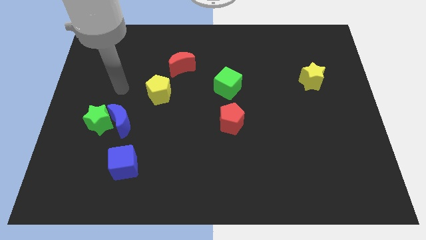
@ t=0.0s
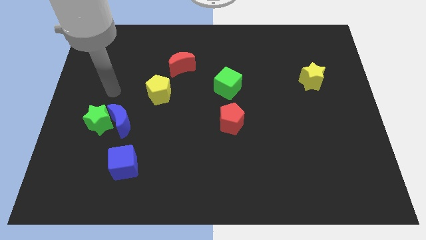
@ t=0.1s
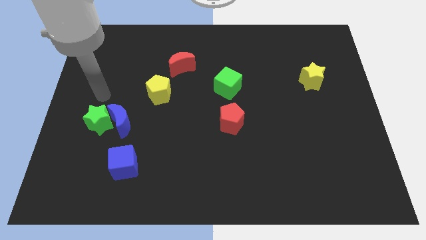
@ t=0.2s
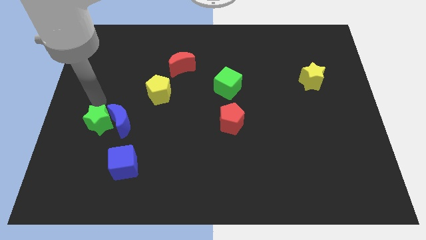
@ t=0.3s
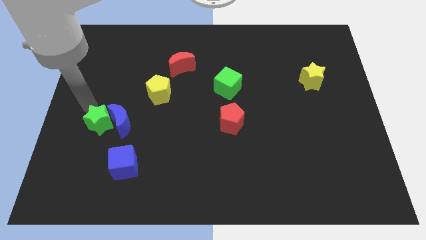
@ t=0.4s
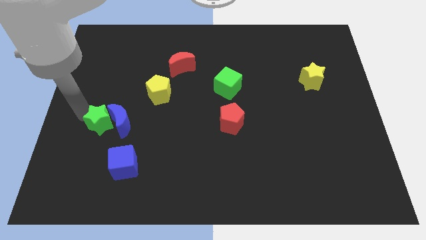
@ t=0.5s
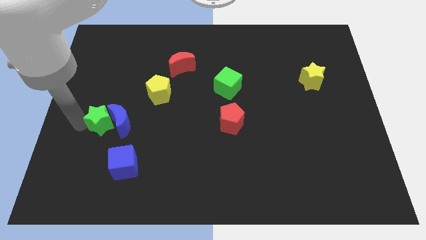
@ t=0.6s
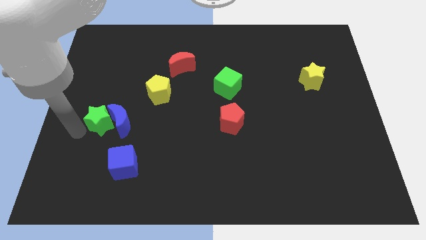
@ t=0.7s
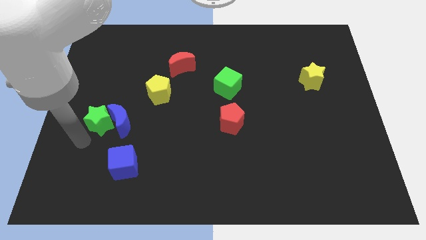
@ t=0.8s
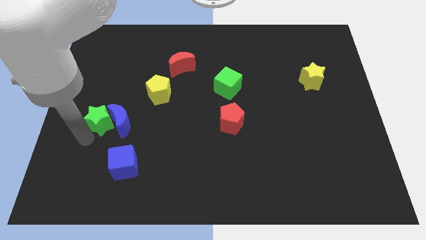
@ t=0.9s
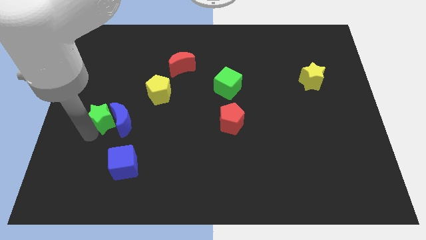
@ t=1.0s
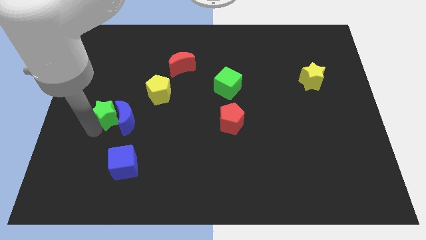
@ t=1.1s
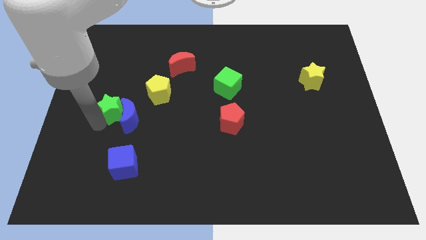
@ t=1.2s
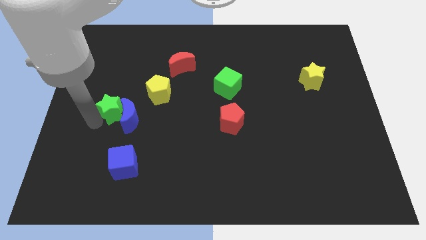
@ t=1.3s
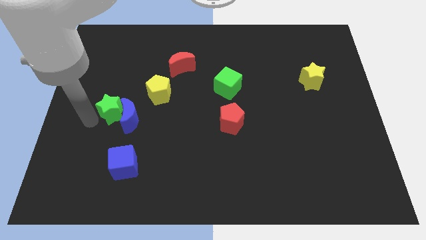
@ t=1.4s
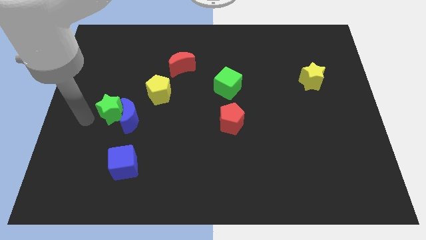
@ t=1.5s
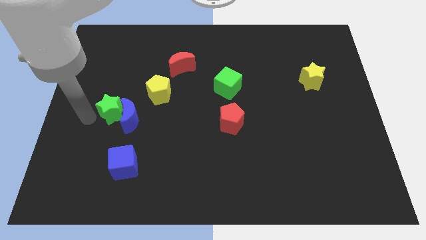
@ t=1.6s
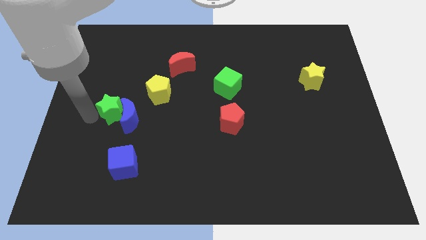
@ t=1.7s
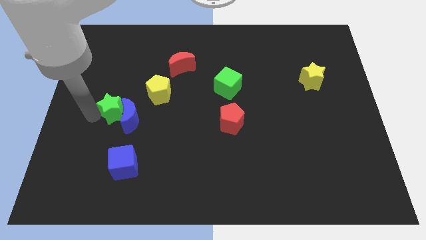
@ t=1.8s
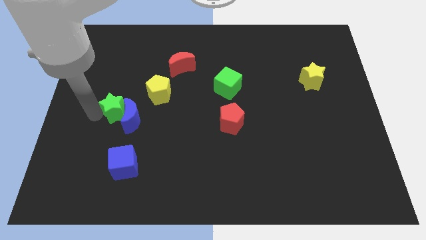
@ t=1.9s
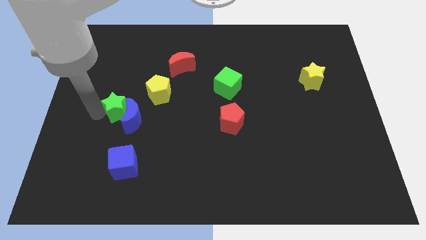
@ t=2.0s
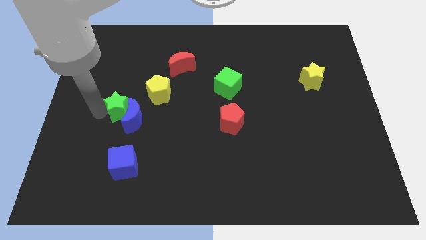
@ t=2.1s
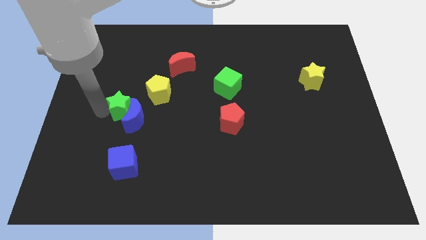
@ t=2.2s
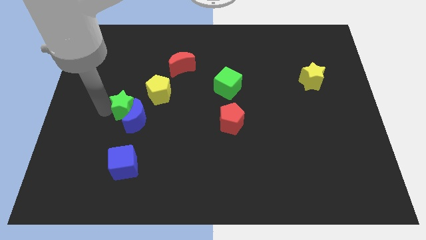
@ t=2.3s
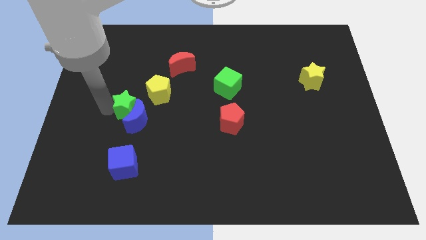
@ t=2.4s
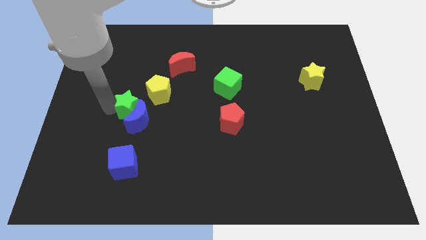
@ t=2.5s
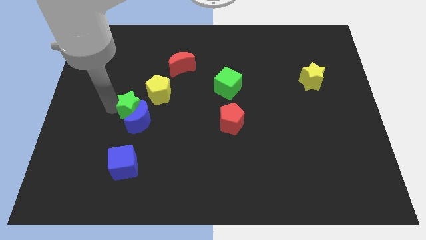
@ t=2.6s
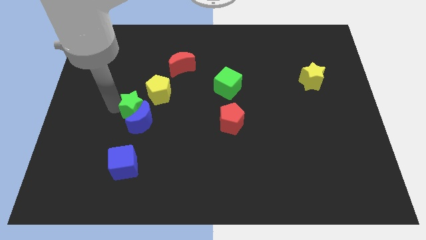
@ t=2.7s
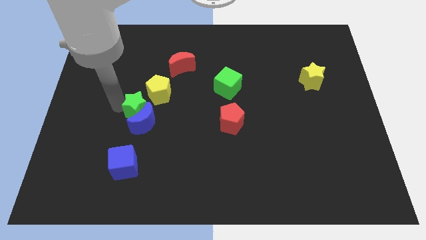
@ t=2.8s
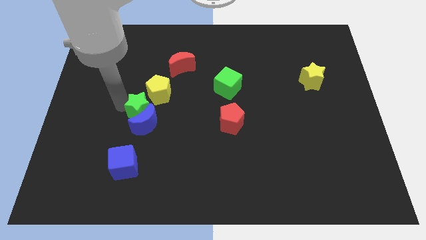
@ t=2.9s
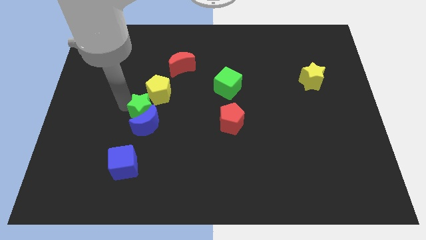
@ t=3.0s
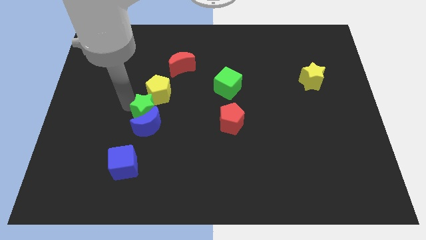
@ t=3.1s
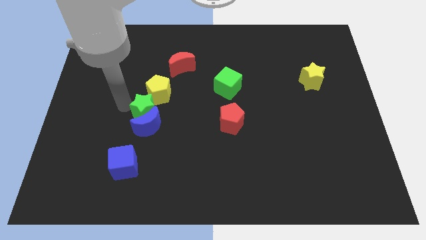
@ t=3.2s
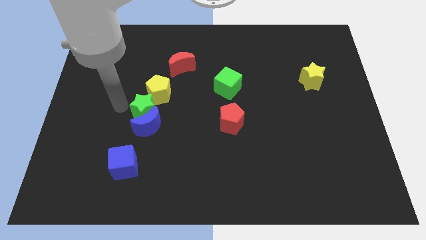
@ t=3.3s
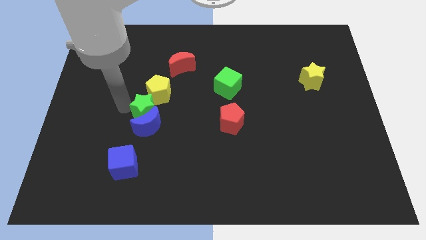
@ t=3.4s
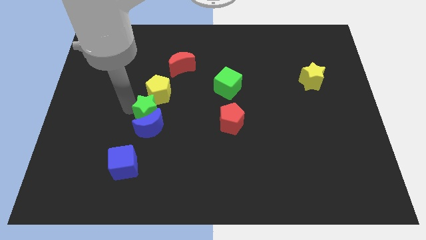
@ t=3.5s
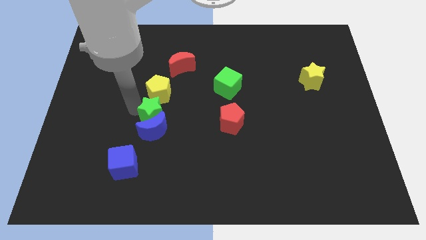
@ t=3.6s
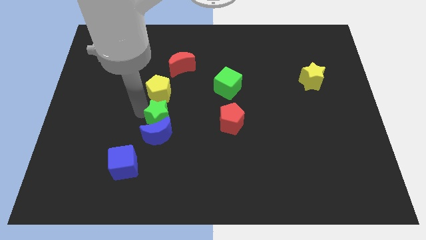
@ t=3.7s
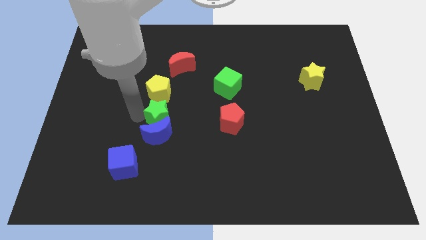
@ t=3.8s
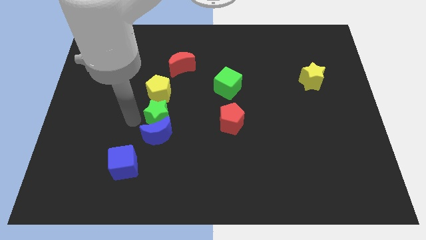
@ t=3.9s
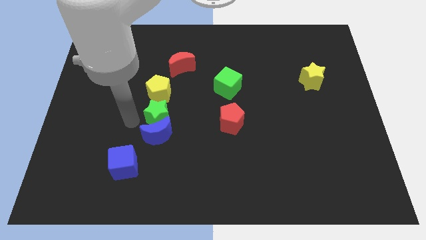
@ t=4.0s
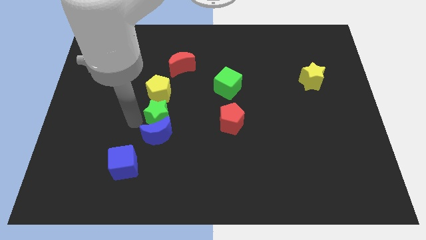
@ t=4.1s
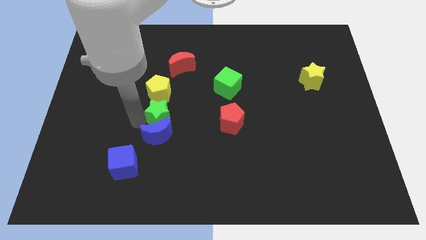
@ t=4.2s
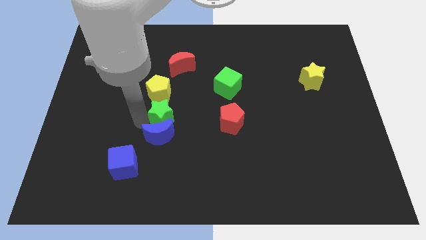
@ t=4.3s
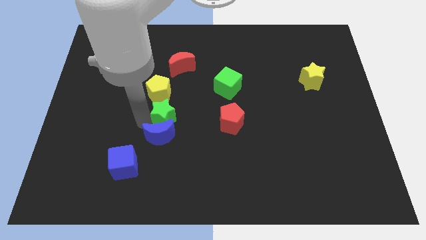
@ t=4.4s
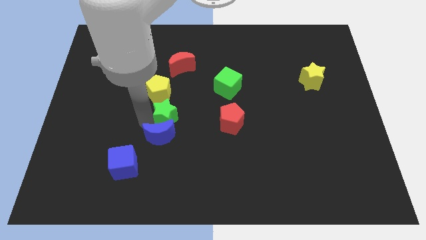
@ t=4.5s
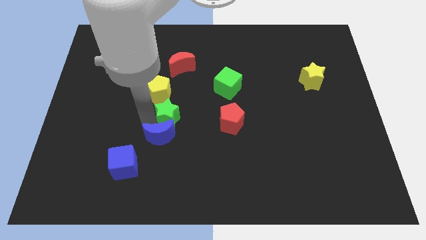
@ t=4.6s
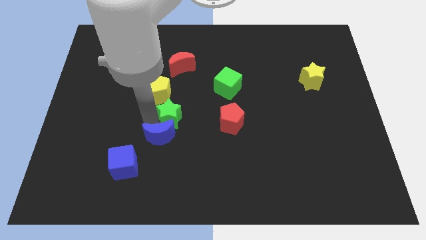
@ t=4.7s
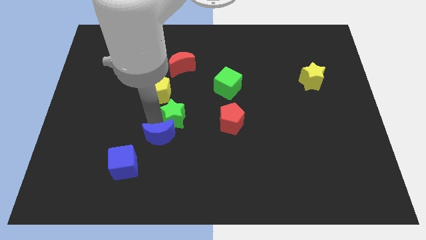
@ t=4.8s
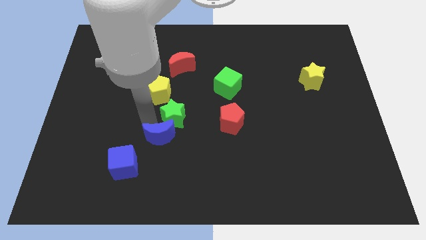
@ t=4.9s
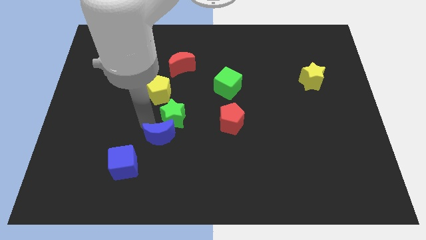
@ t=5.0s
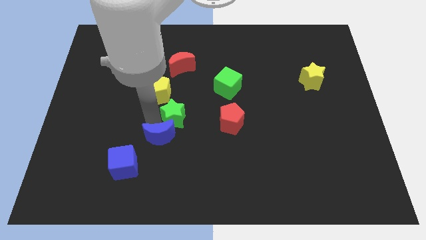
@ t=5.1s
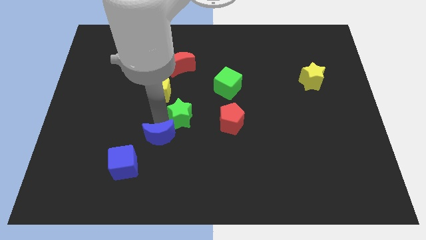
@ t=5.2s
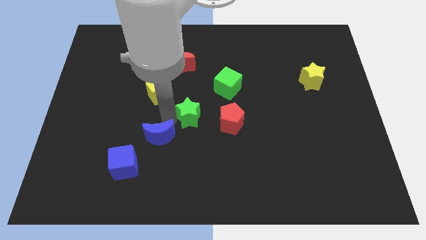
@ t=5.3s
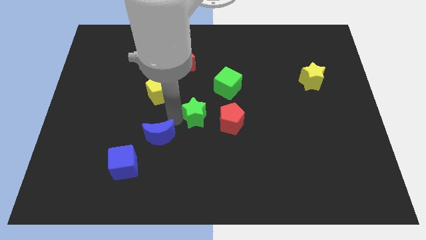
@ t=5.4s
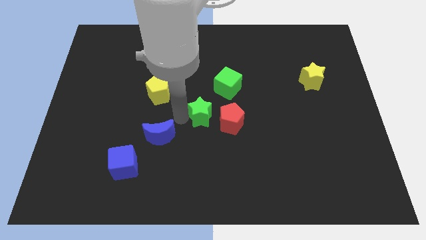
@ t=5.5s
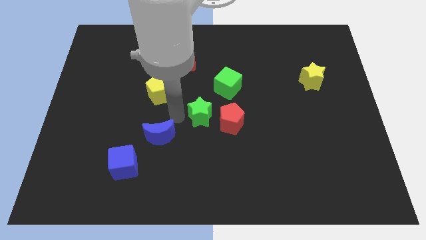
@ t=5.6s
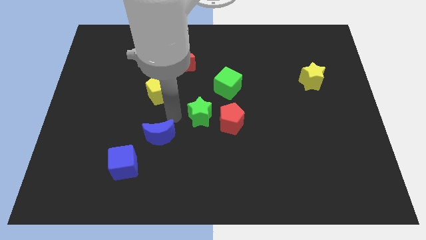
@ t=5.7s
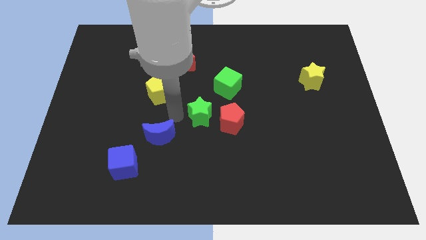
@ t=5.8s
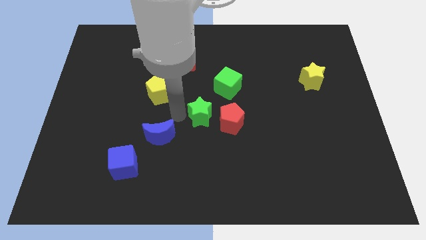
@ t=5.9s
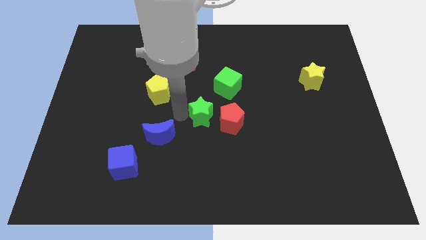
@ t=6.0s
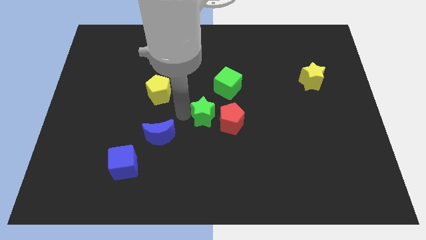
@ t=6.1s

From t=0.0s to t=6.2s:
slide the green star next to the red pentagon

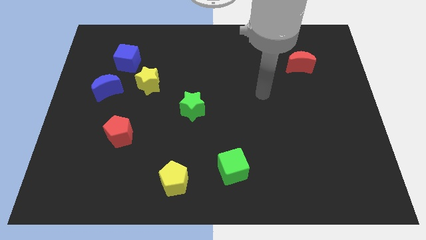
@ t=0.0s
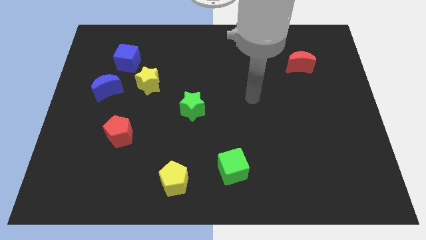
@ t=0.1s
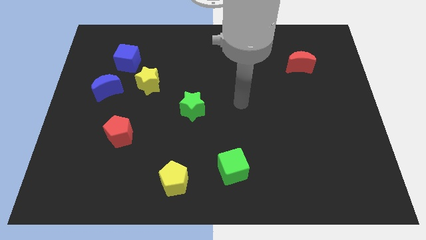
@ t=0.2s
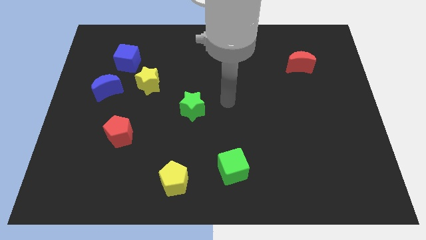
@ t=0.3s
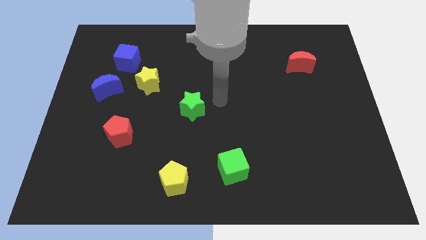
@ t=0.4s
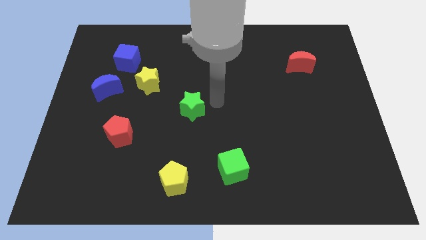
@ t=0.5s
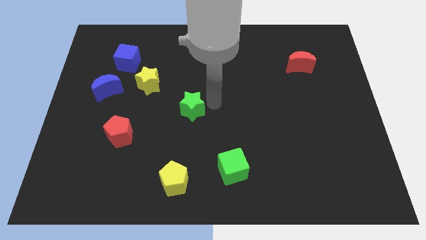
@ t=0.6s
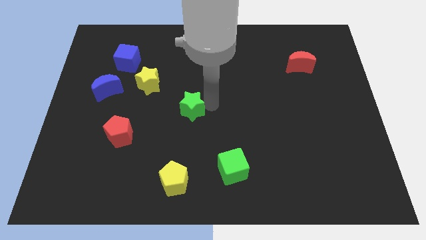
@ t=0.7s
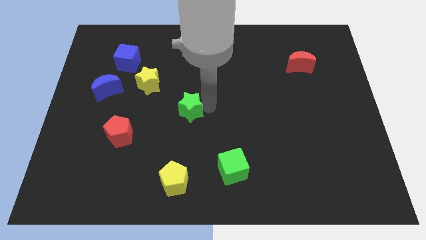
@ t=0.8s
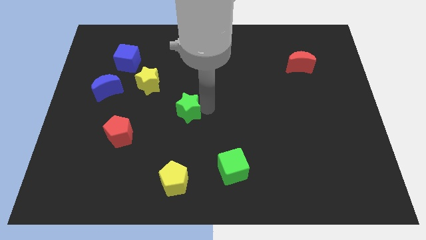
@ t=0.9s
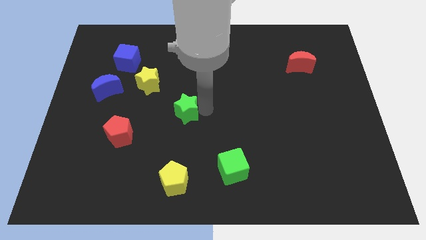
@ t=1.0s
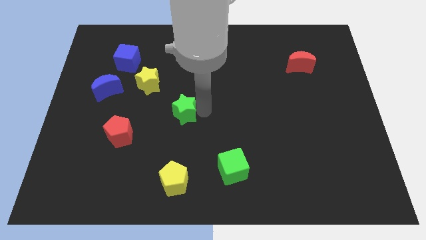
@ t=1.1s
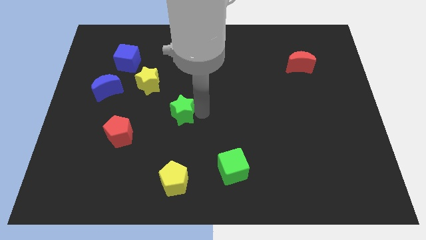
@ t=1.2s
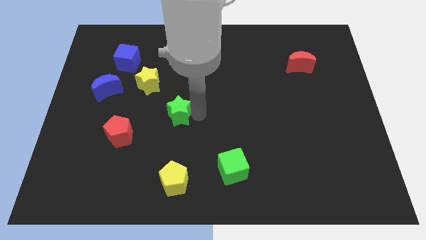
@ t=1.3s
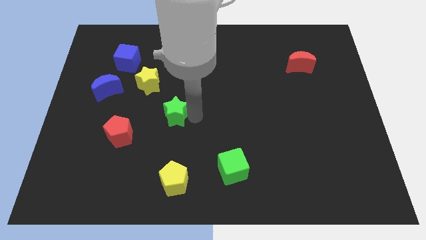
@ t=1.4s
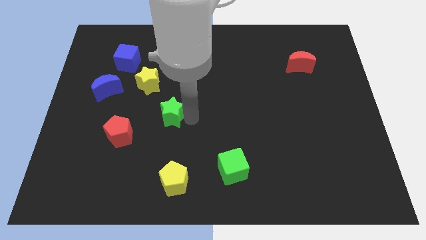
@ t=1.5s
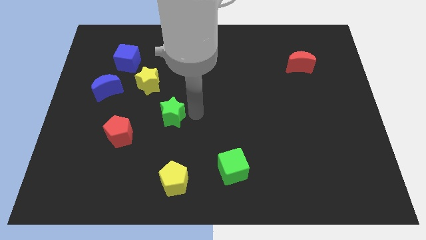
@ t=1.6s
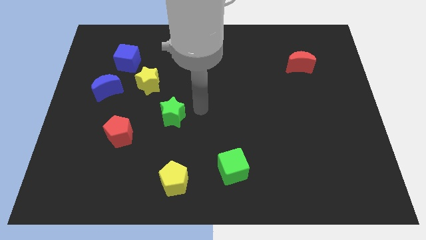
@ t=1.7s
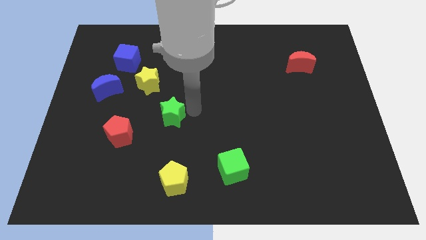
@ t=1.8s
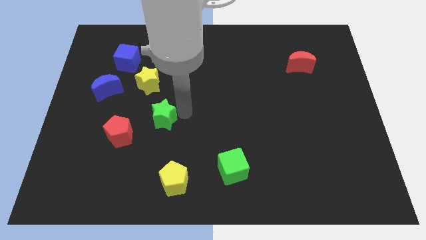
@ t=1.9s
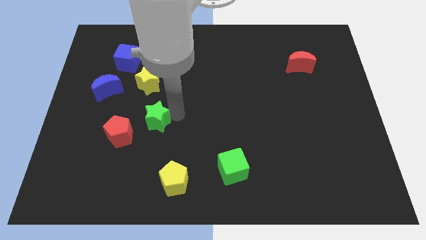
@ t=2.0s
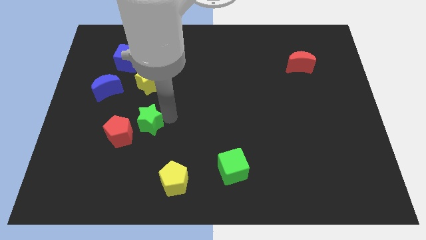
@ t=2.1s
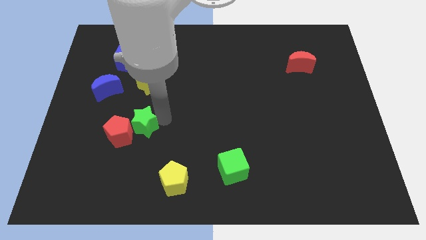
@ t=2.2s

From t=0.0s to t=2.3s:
put the green star towards the red pentagon
